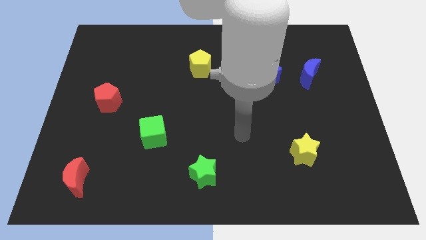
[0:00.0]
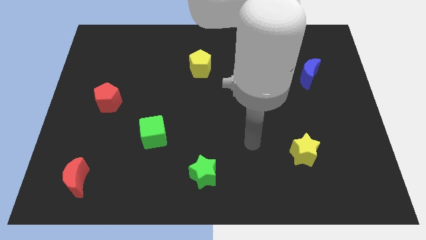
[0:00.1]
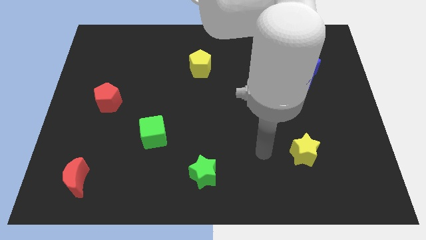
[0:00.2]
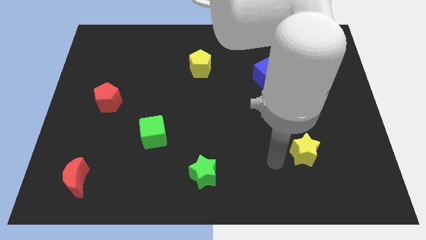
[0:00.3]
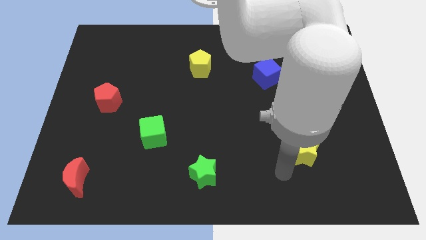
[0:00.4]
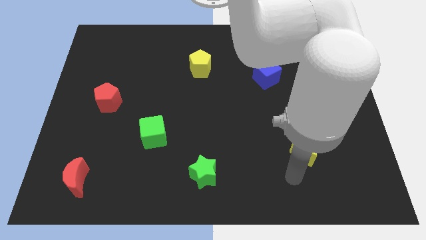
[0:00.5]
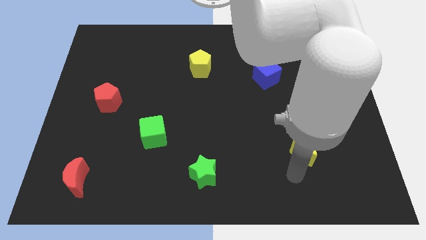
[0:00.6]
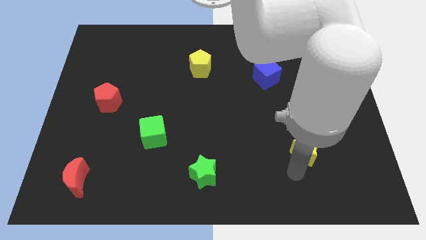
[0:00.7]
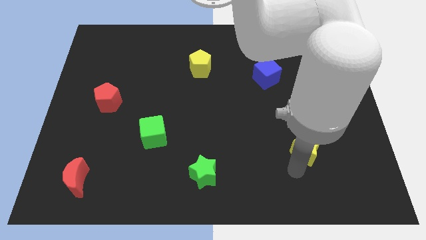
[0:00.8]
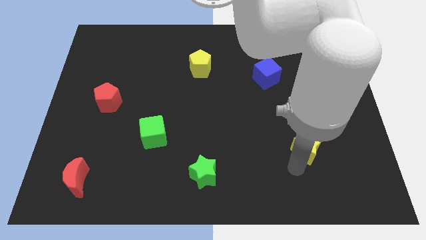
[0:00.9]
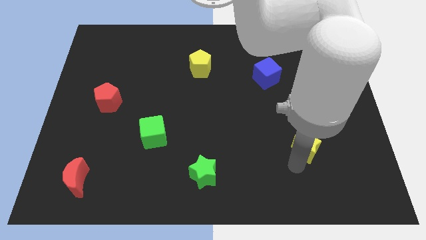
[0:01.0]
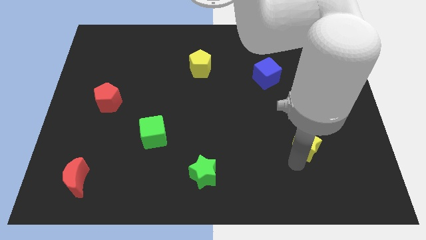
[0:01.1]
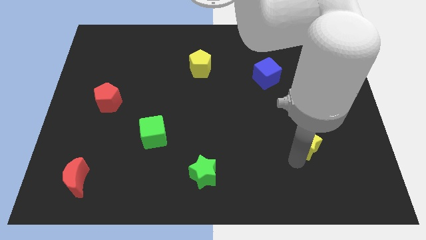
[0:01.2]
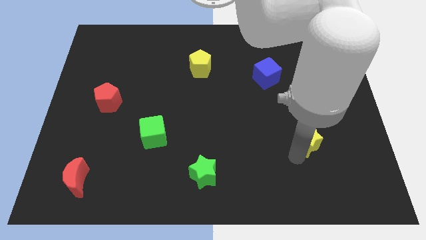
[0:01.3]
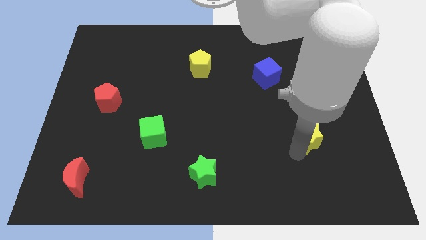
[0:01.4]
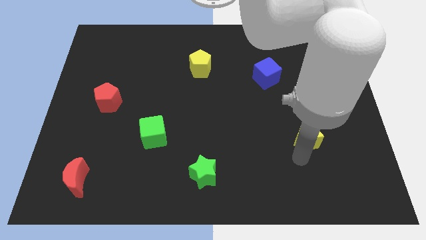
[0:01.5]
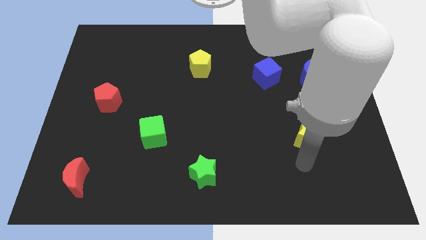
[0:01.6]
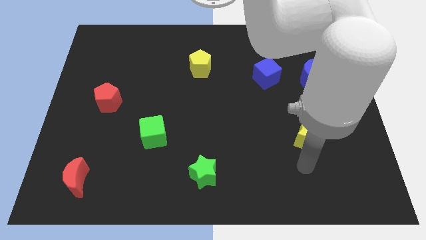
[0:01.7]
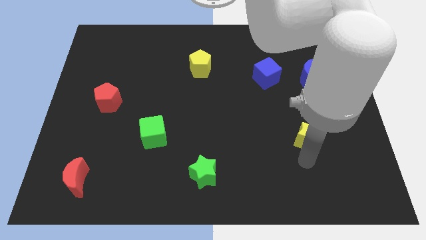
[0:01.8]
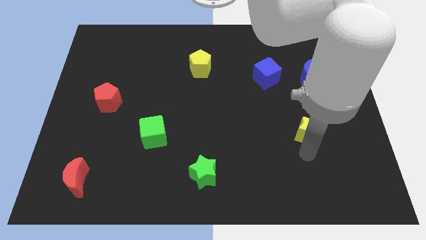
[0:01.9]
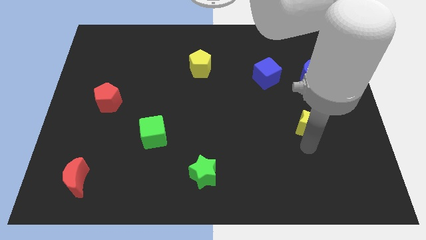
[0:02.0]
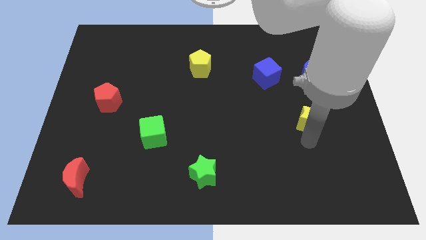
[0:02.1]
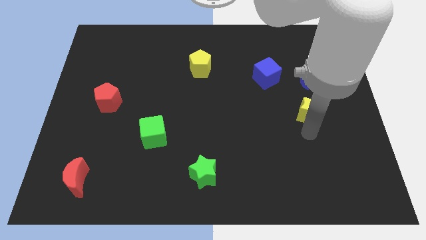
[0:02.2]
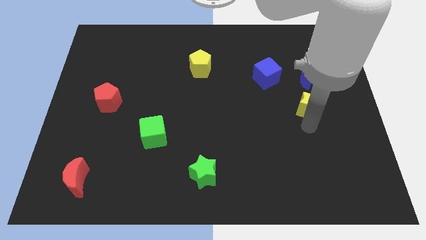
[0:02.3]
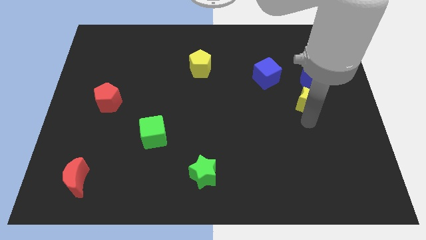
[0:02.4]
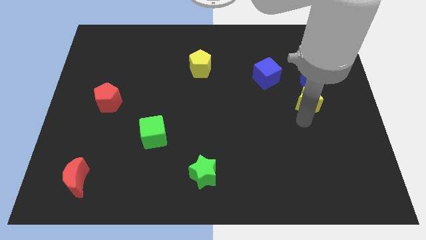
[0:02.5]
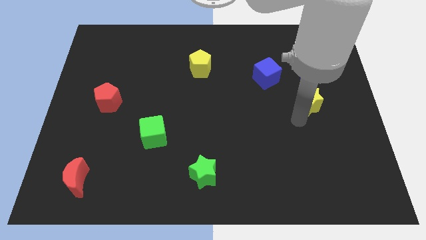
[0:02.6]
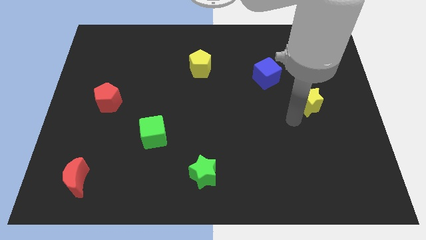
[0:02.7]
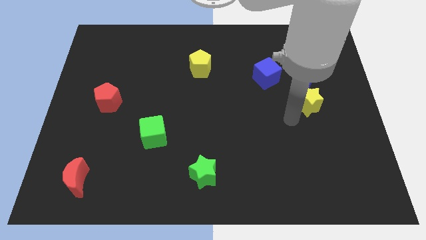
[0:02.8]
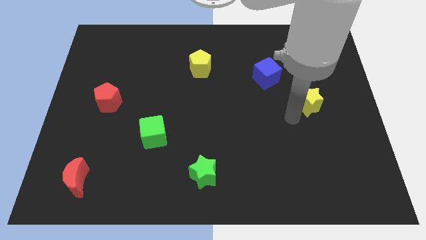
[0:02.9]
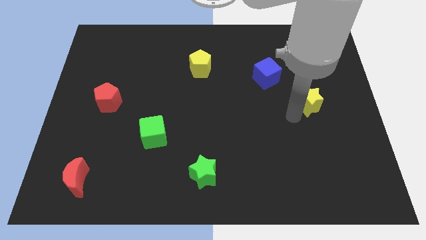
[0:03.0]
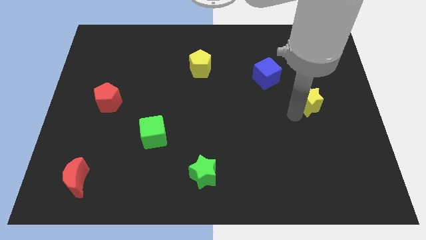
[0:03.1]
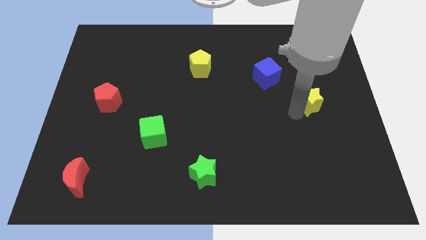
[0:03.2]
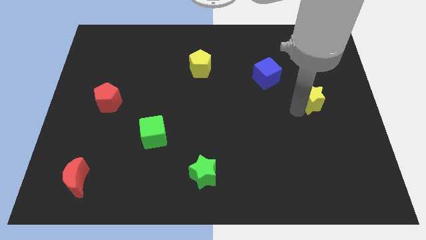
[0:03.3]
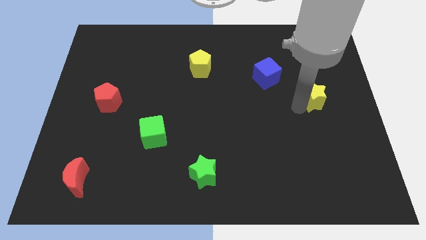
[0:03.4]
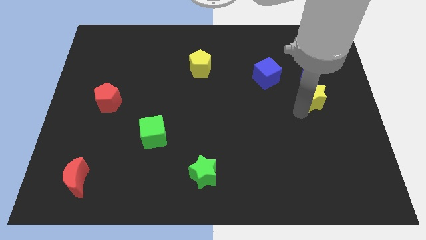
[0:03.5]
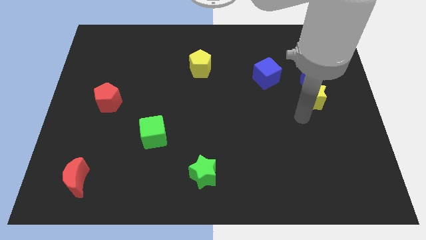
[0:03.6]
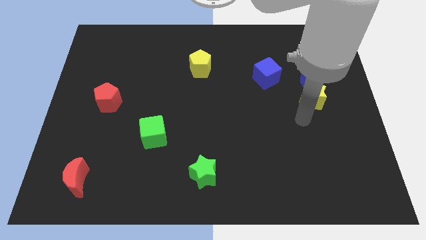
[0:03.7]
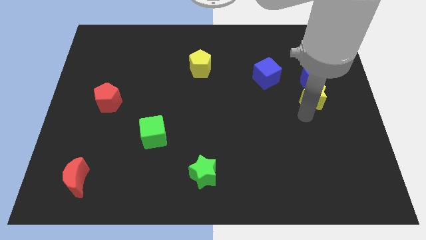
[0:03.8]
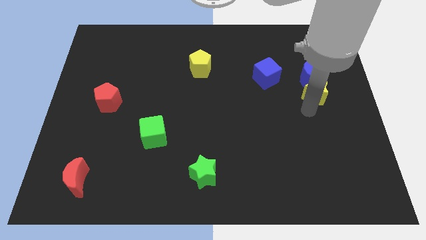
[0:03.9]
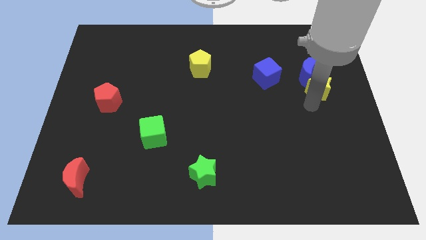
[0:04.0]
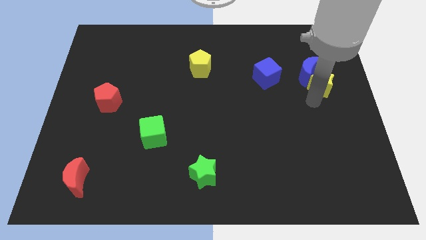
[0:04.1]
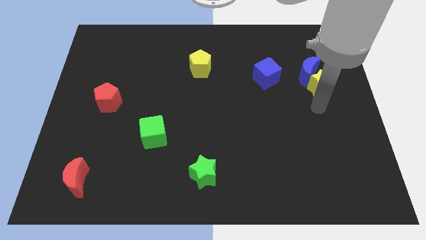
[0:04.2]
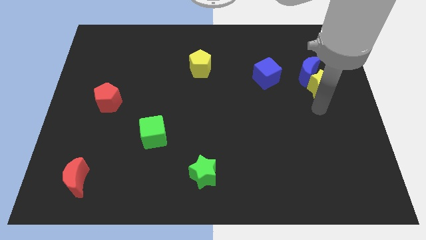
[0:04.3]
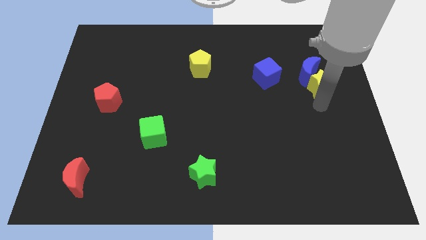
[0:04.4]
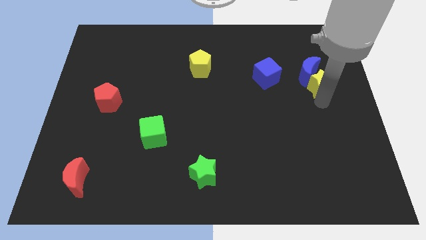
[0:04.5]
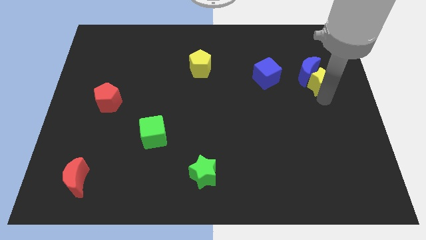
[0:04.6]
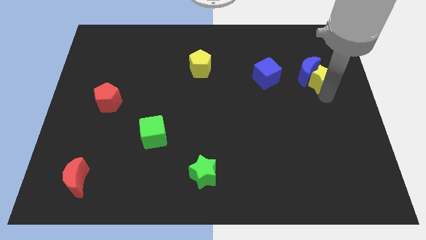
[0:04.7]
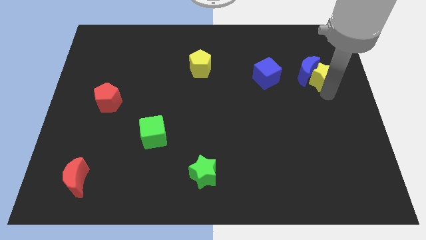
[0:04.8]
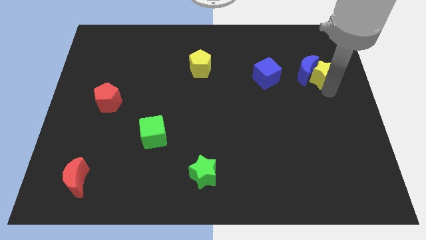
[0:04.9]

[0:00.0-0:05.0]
slide the yellow star diagonally up and to the right of the blue moon

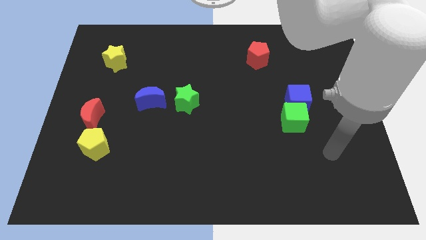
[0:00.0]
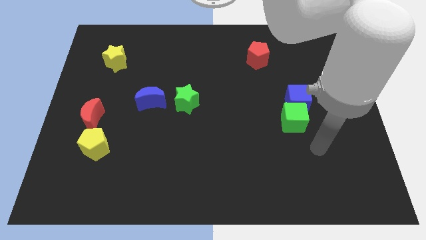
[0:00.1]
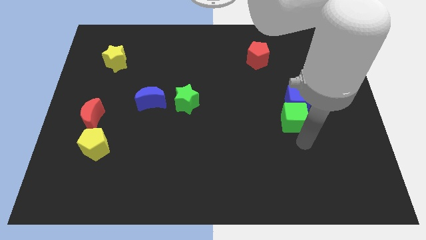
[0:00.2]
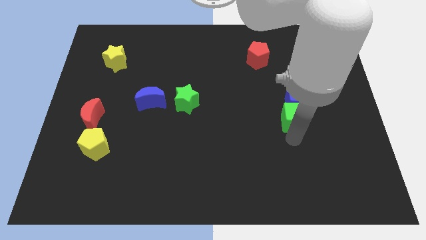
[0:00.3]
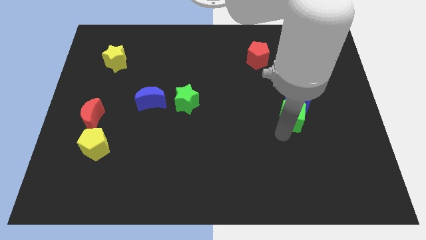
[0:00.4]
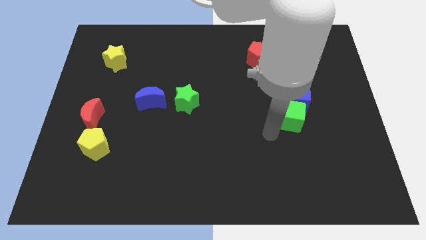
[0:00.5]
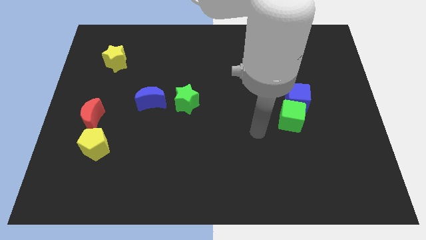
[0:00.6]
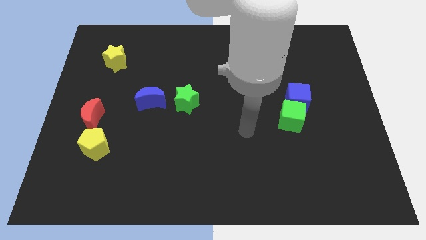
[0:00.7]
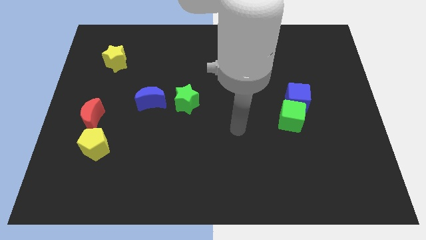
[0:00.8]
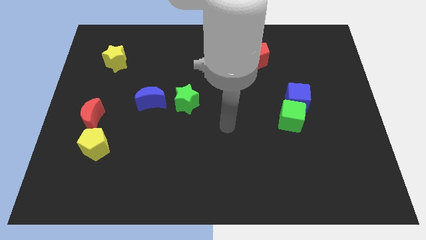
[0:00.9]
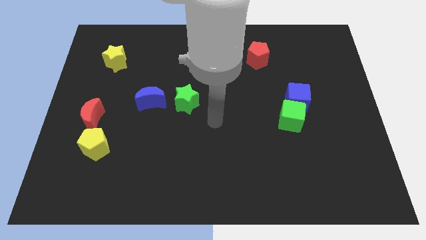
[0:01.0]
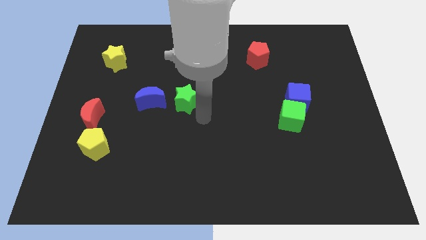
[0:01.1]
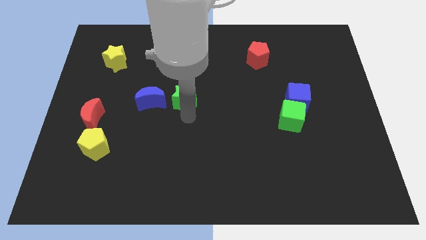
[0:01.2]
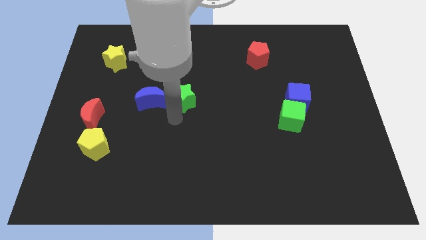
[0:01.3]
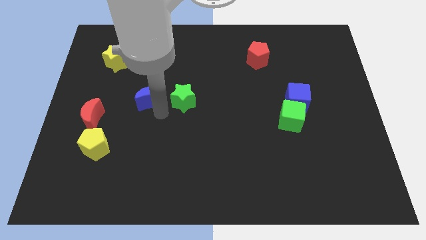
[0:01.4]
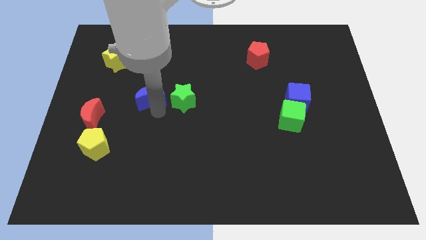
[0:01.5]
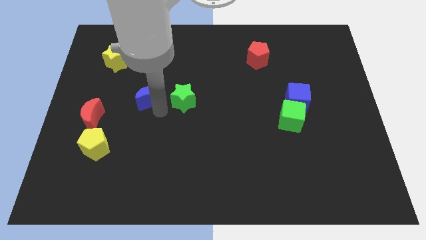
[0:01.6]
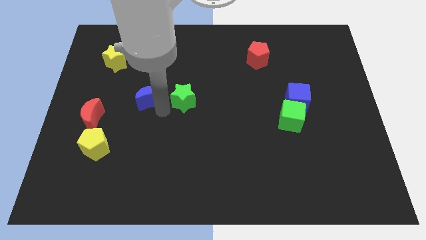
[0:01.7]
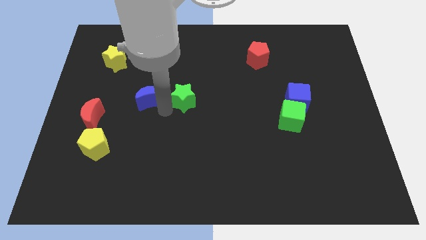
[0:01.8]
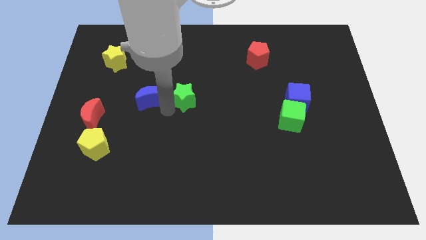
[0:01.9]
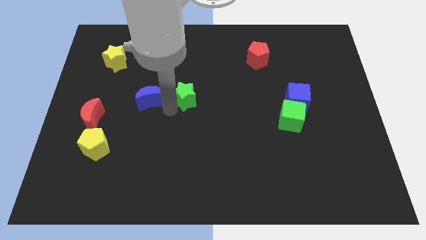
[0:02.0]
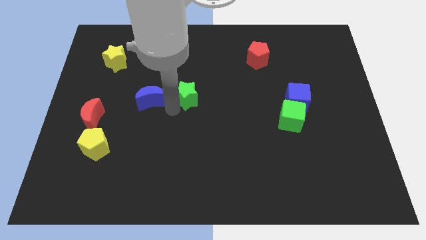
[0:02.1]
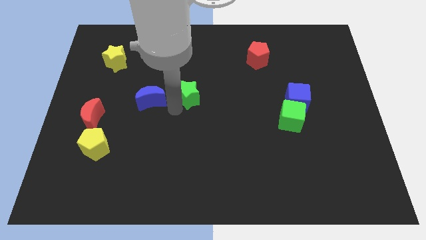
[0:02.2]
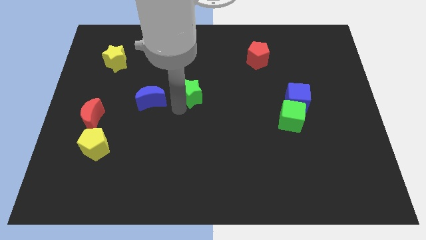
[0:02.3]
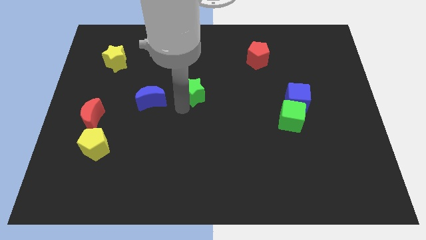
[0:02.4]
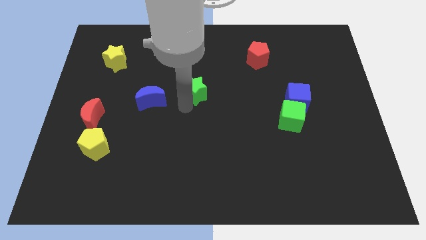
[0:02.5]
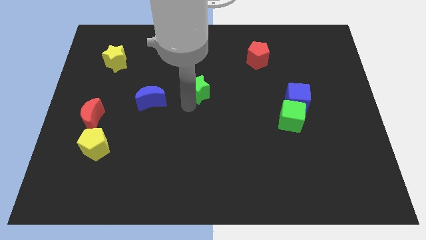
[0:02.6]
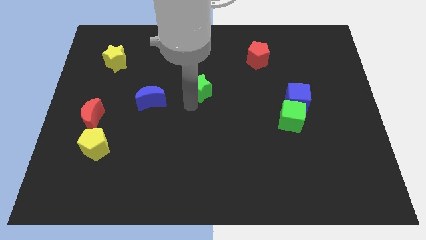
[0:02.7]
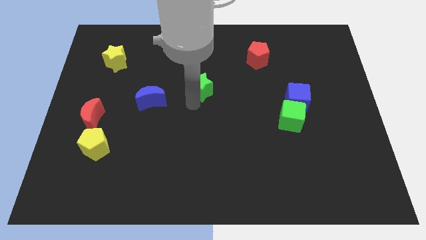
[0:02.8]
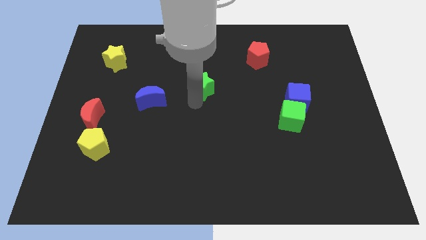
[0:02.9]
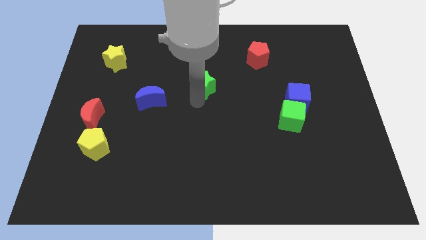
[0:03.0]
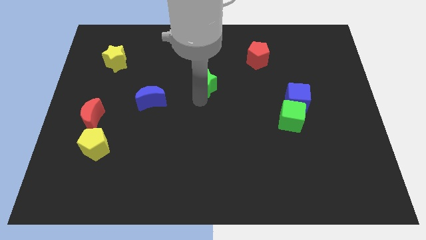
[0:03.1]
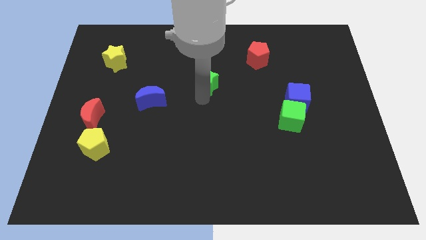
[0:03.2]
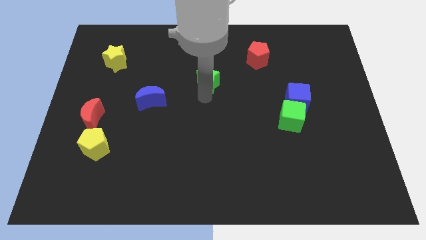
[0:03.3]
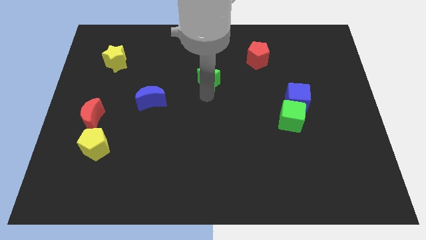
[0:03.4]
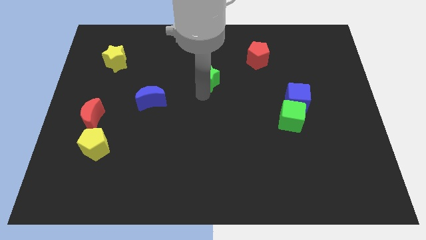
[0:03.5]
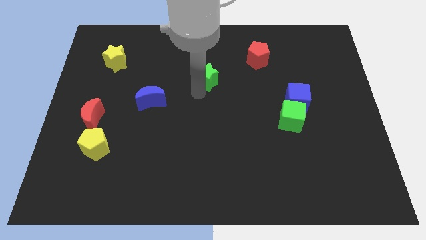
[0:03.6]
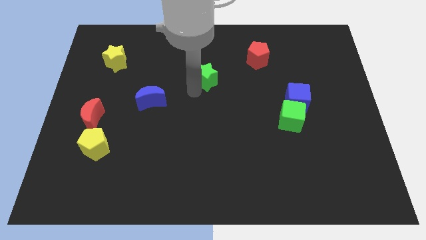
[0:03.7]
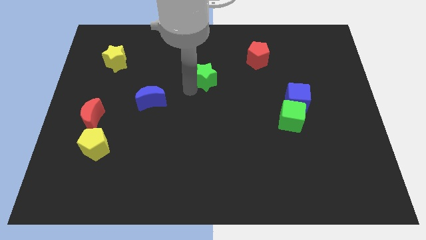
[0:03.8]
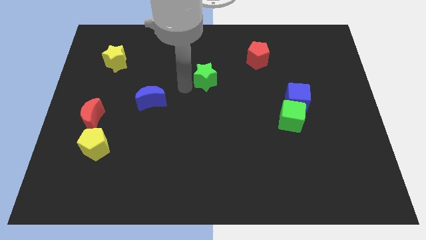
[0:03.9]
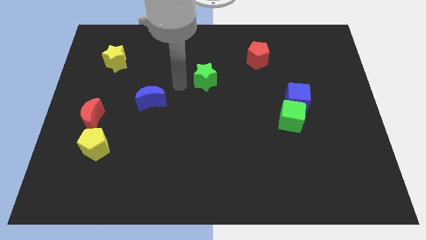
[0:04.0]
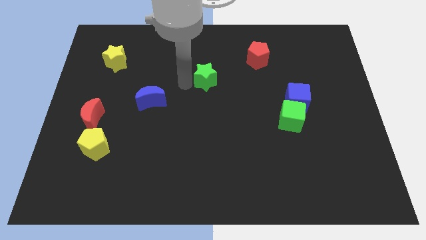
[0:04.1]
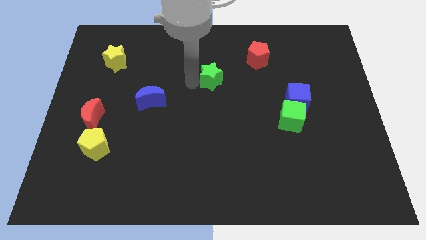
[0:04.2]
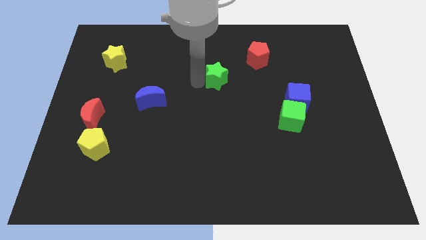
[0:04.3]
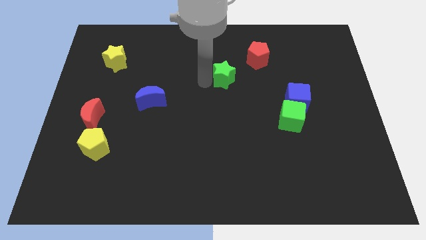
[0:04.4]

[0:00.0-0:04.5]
push the green star to the bottom left side of the red pentagon
